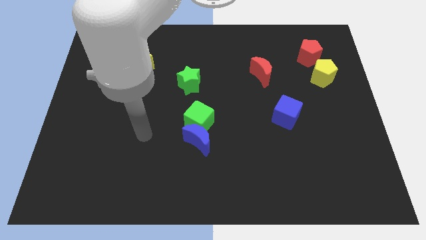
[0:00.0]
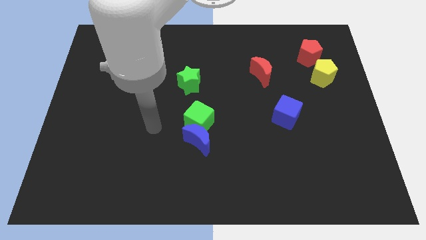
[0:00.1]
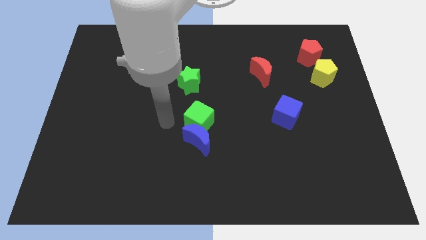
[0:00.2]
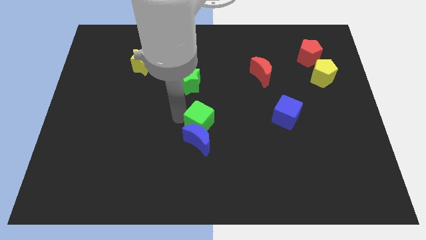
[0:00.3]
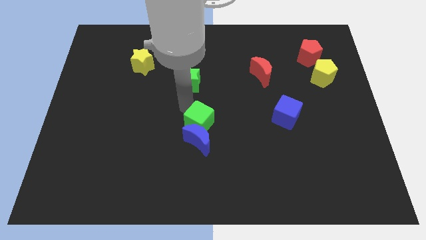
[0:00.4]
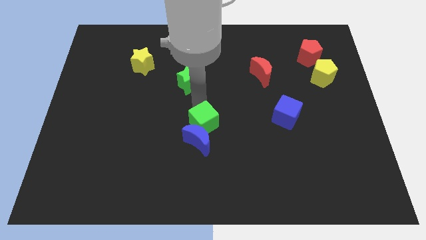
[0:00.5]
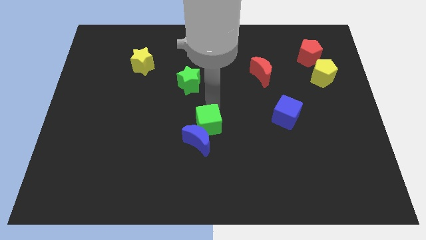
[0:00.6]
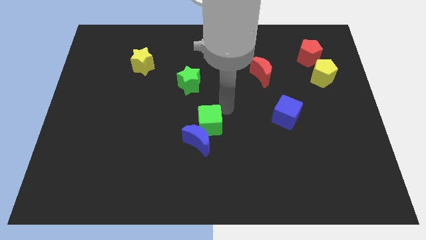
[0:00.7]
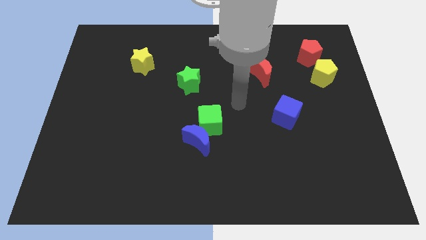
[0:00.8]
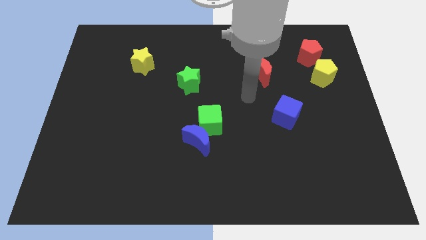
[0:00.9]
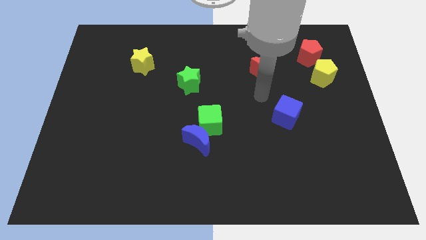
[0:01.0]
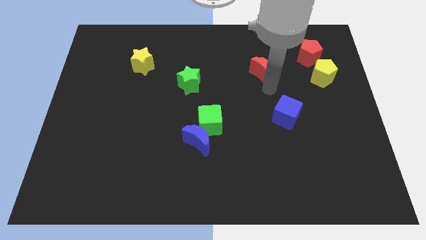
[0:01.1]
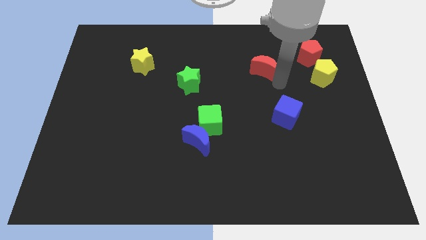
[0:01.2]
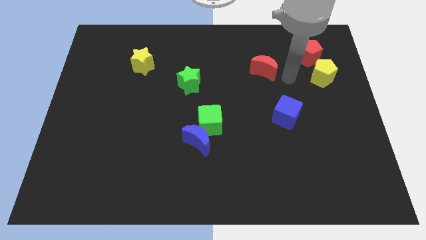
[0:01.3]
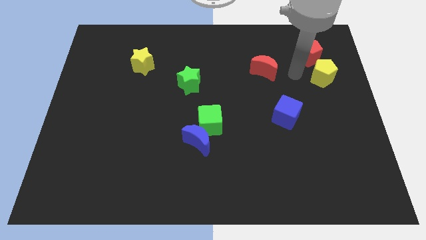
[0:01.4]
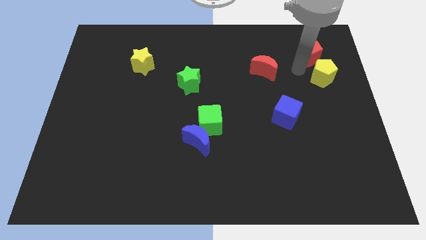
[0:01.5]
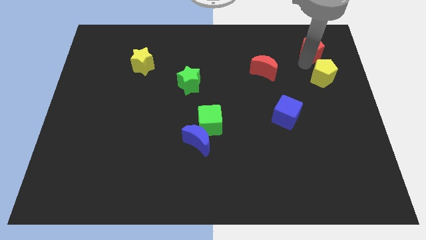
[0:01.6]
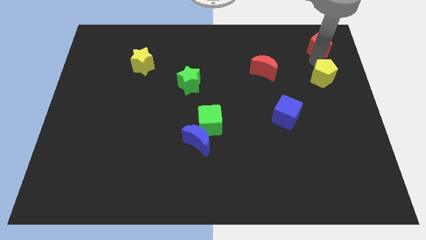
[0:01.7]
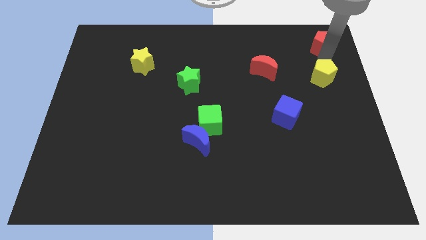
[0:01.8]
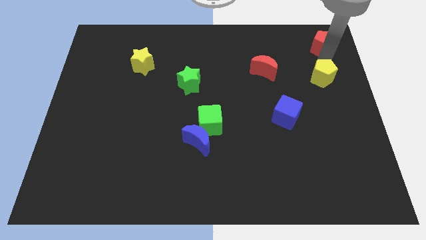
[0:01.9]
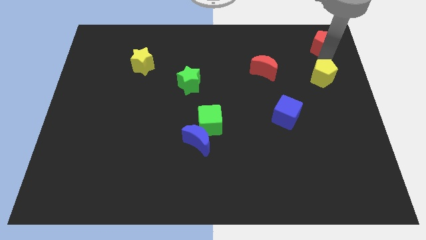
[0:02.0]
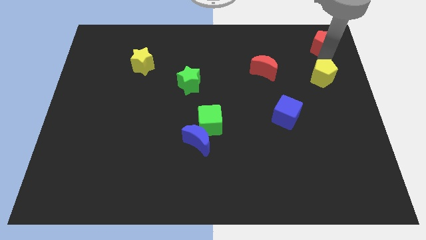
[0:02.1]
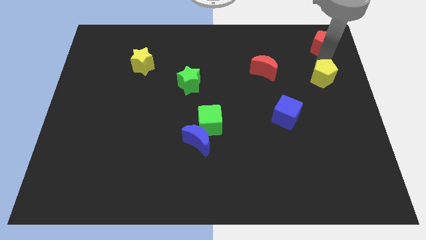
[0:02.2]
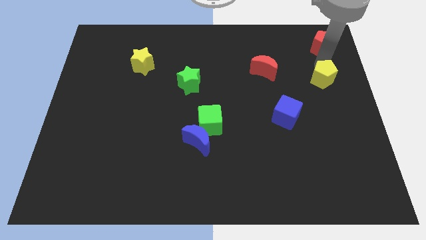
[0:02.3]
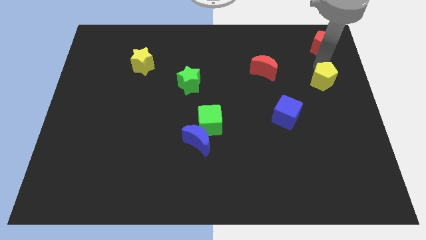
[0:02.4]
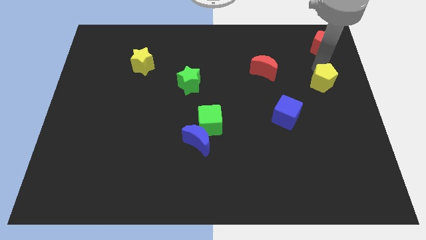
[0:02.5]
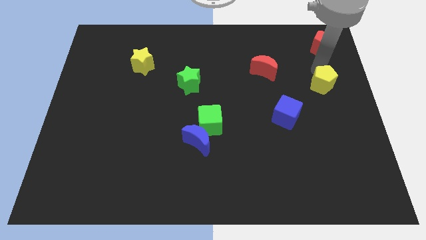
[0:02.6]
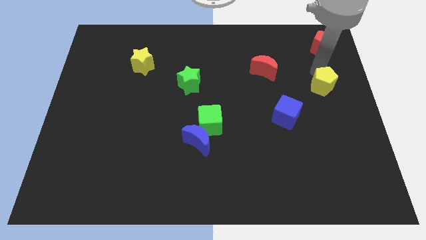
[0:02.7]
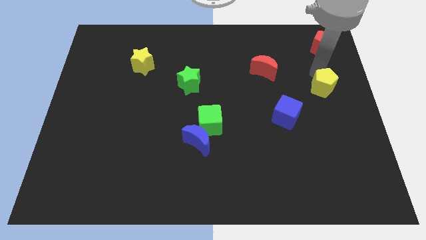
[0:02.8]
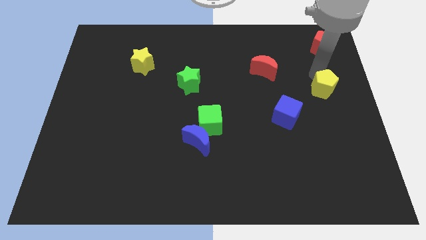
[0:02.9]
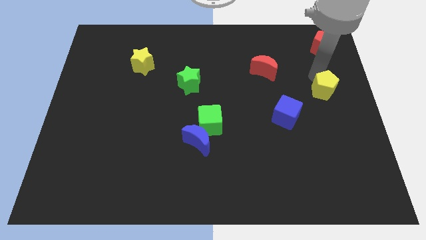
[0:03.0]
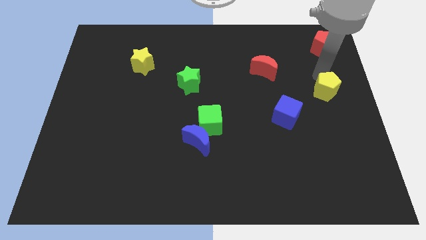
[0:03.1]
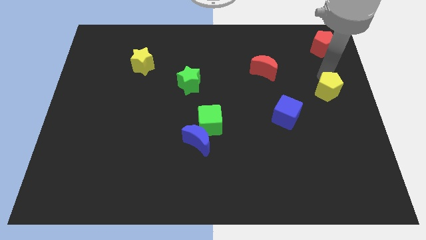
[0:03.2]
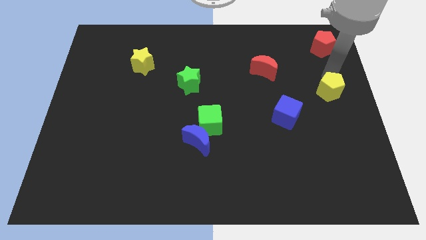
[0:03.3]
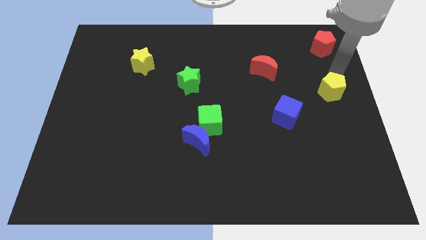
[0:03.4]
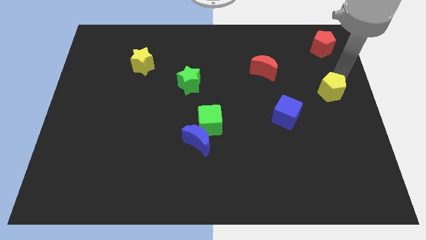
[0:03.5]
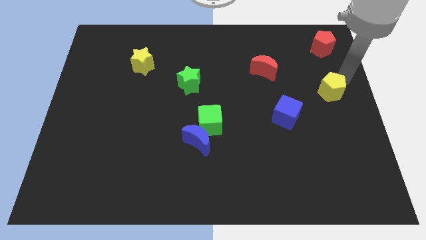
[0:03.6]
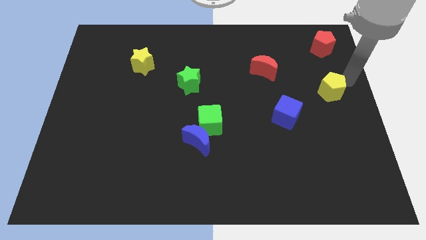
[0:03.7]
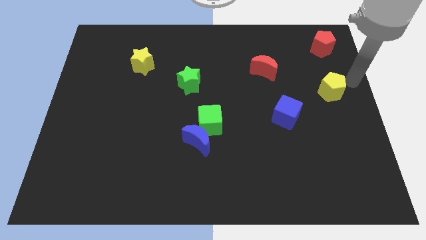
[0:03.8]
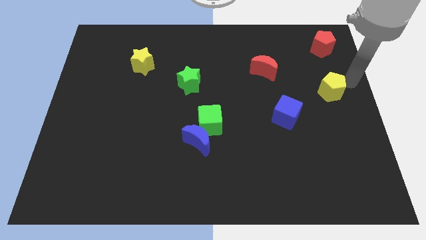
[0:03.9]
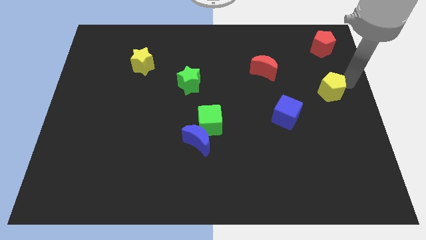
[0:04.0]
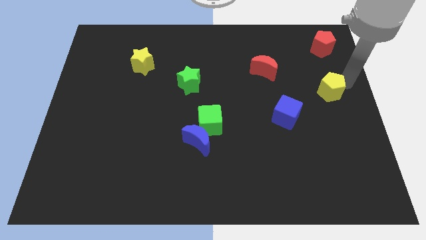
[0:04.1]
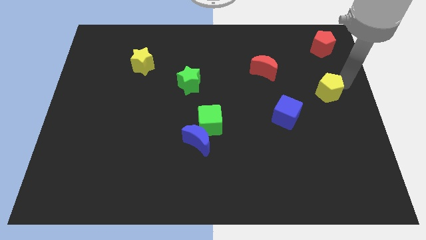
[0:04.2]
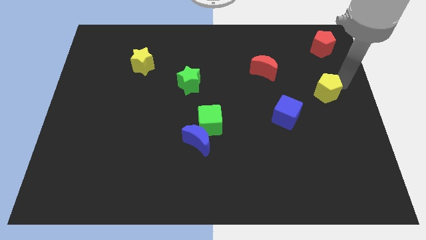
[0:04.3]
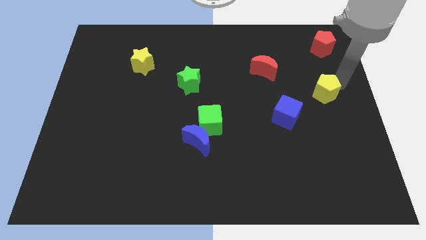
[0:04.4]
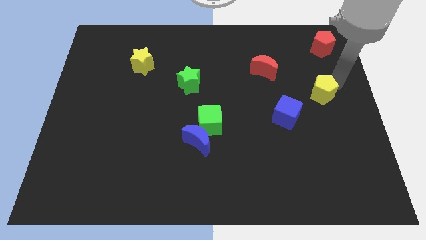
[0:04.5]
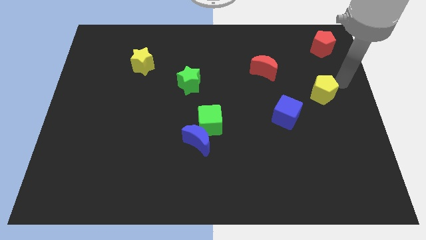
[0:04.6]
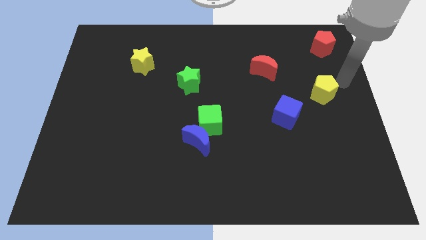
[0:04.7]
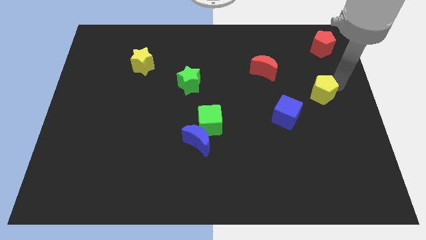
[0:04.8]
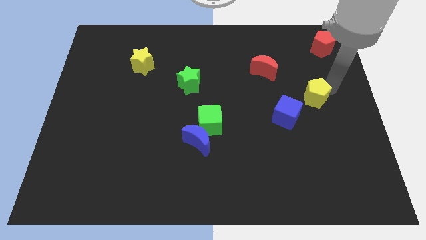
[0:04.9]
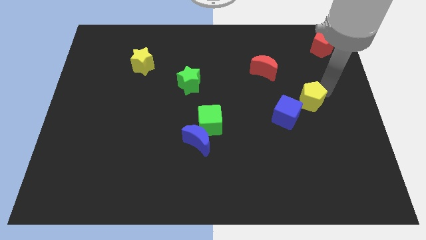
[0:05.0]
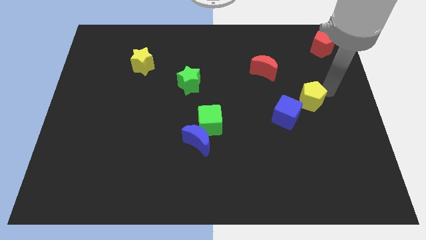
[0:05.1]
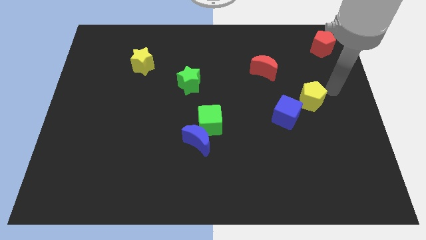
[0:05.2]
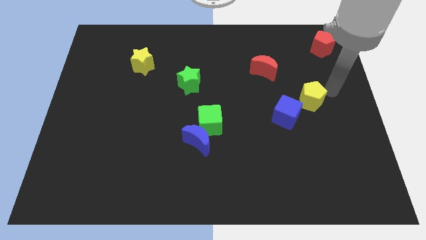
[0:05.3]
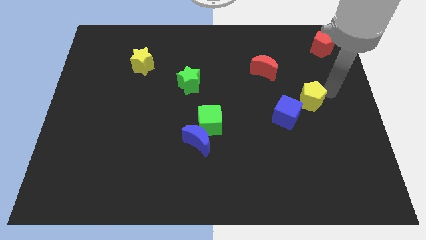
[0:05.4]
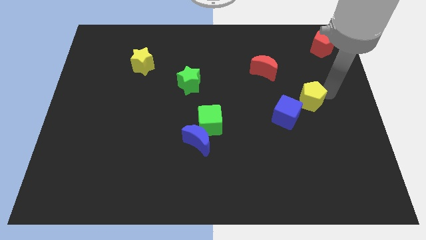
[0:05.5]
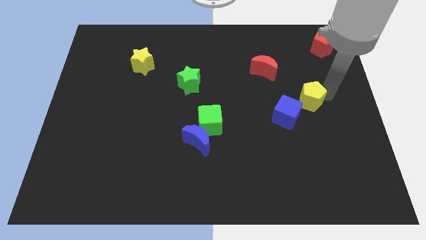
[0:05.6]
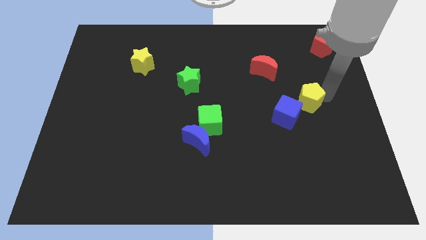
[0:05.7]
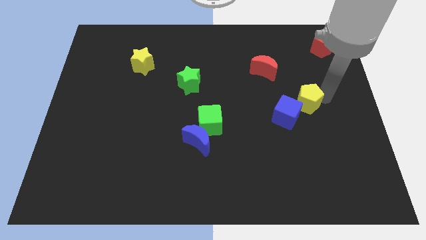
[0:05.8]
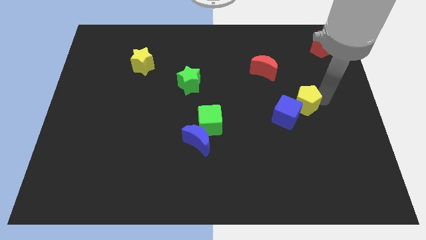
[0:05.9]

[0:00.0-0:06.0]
slide the yellow pentagon towards the blue cube

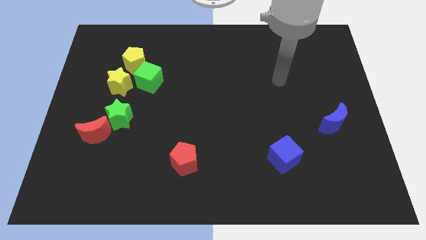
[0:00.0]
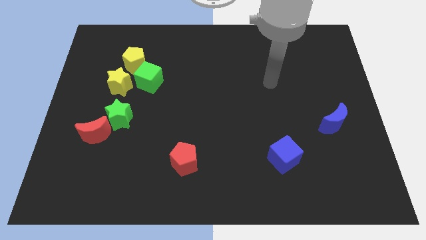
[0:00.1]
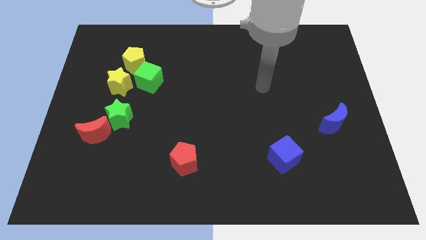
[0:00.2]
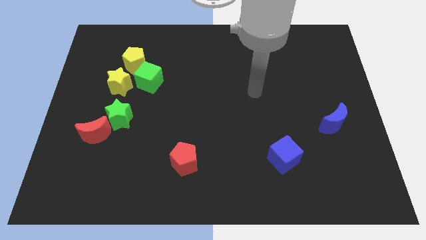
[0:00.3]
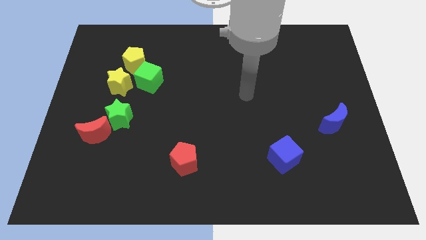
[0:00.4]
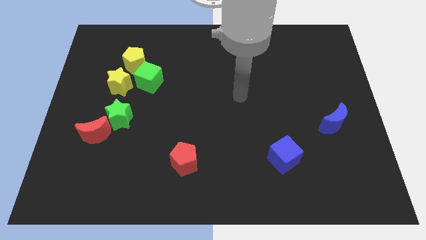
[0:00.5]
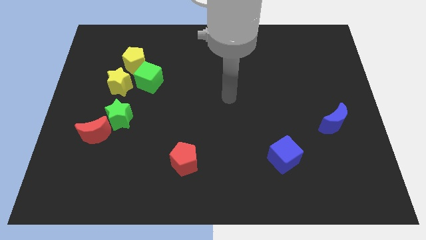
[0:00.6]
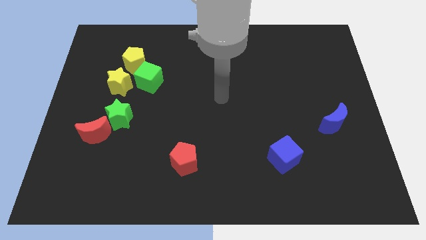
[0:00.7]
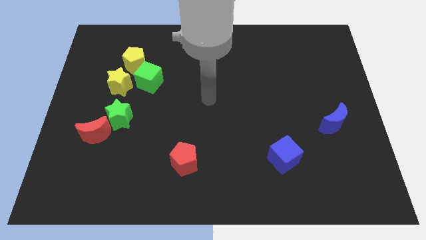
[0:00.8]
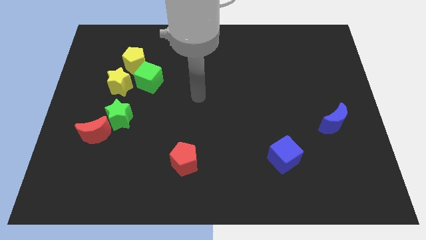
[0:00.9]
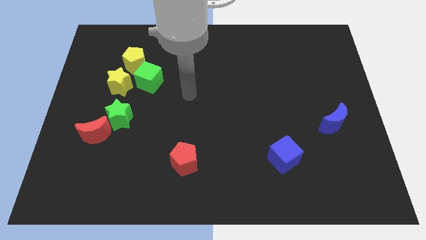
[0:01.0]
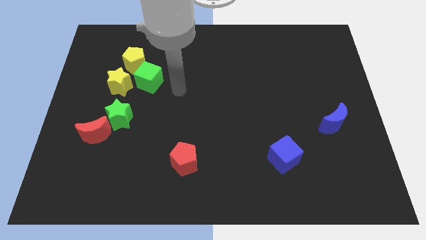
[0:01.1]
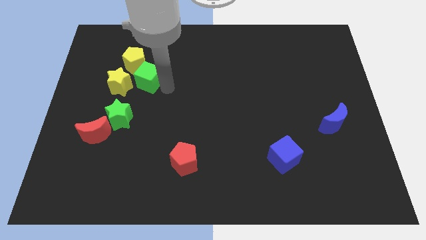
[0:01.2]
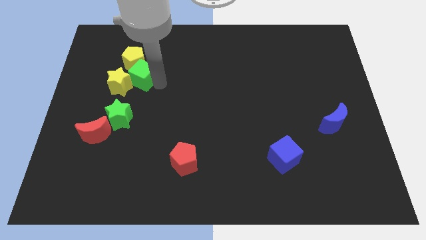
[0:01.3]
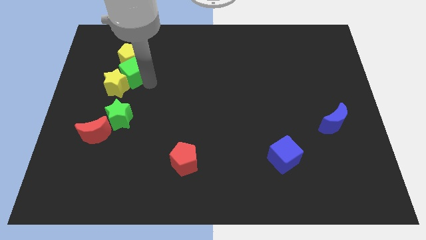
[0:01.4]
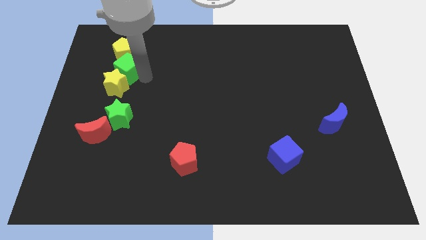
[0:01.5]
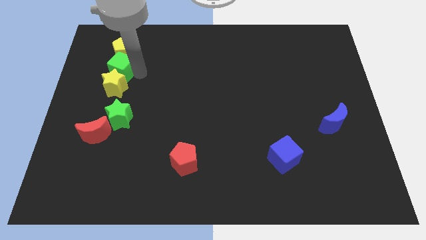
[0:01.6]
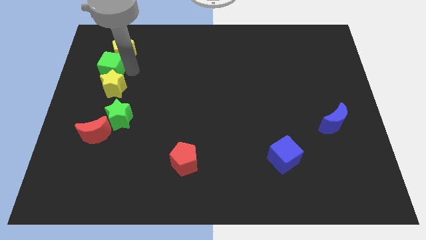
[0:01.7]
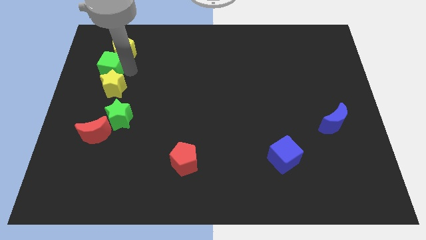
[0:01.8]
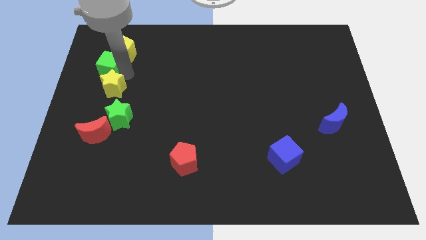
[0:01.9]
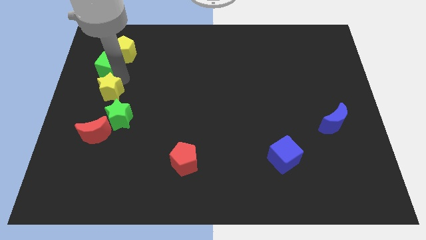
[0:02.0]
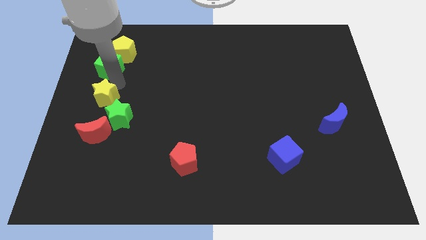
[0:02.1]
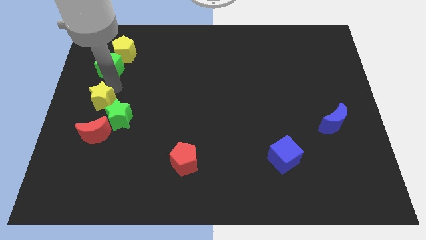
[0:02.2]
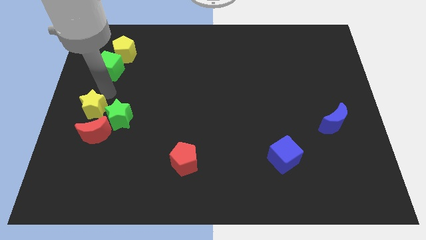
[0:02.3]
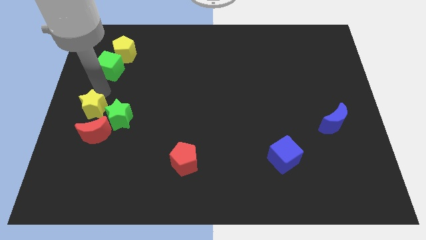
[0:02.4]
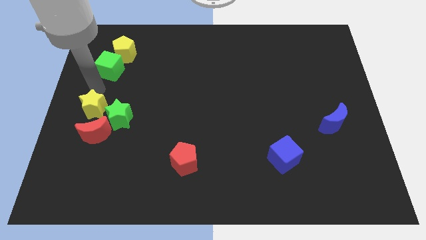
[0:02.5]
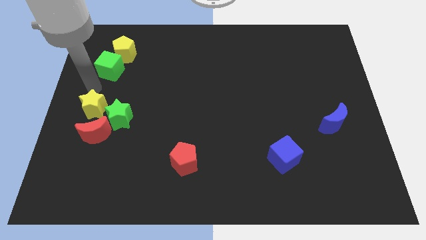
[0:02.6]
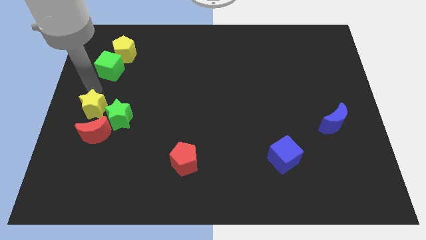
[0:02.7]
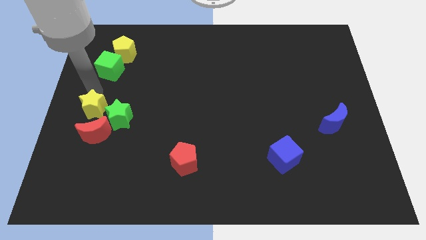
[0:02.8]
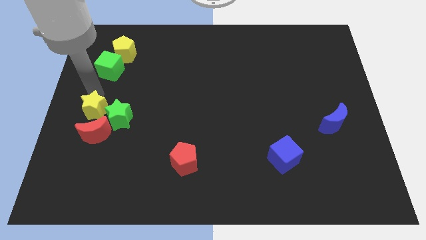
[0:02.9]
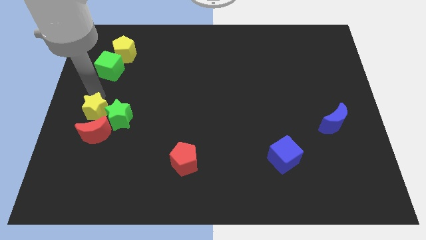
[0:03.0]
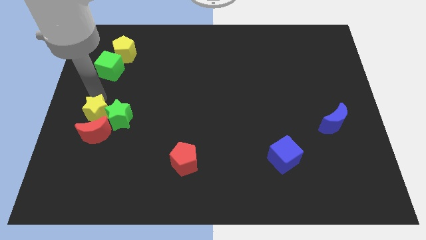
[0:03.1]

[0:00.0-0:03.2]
put the yellow star next to the red moon
